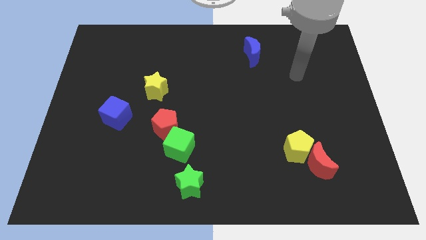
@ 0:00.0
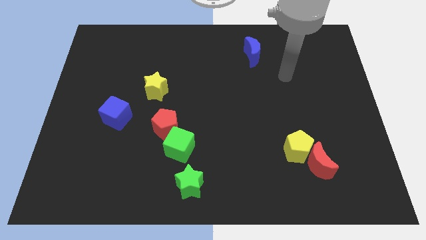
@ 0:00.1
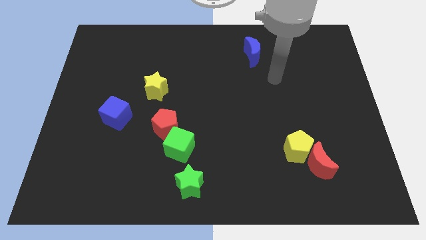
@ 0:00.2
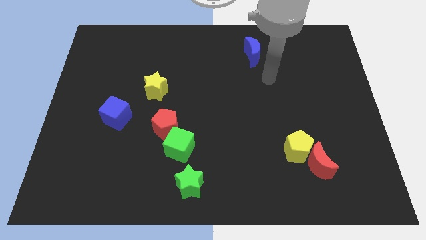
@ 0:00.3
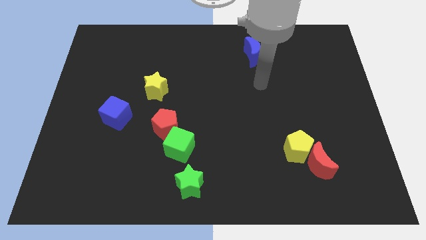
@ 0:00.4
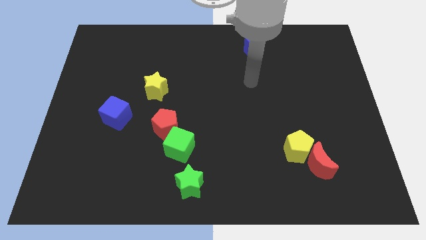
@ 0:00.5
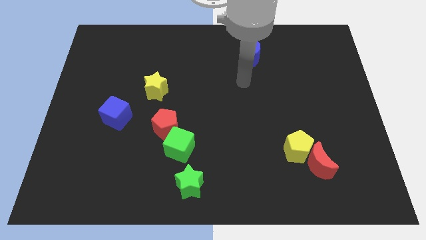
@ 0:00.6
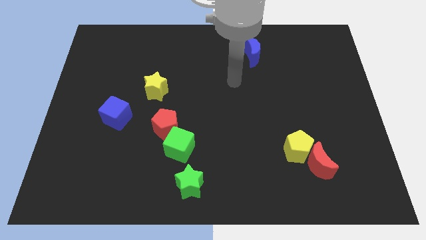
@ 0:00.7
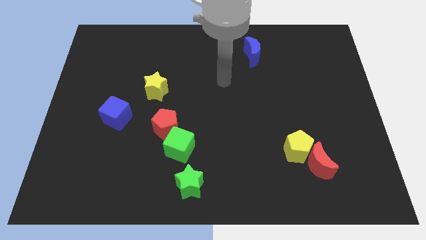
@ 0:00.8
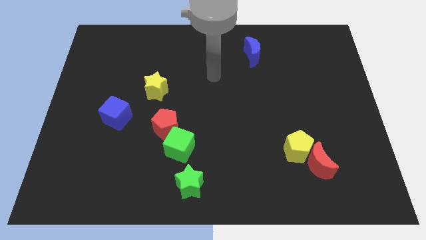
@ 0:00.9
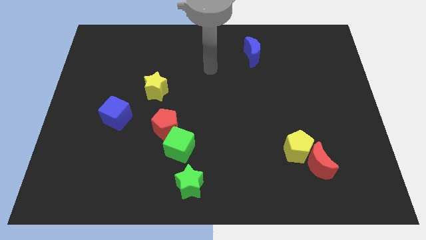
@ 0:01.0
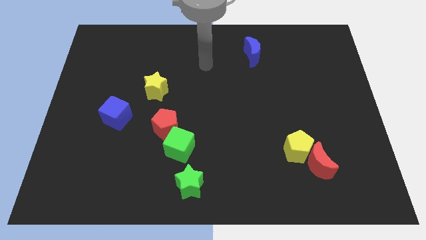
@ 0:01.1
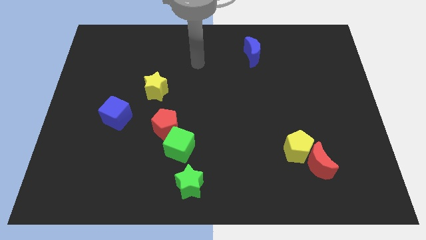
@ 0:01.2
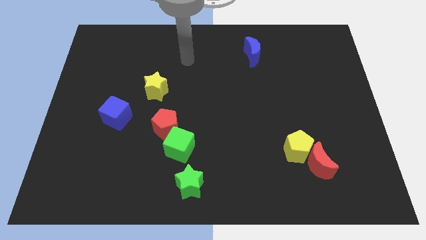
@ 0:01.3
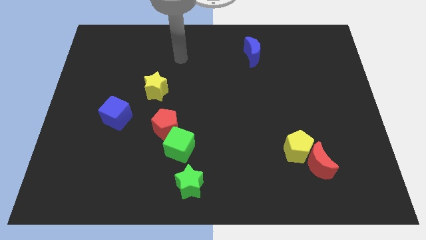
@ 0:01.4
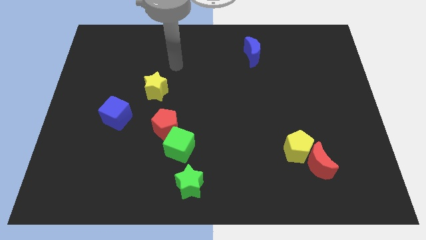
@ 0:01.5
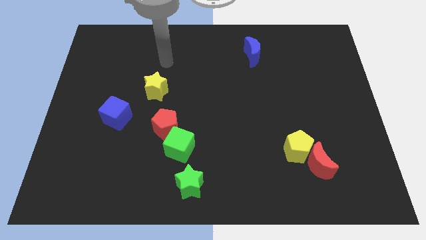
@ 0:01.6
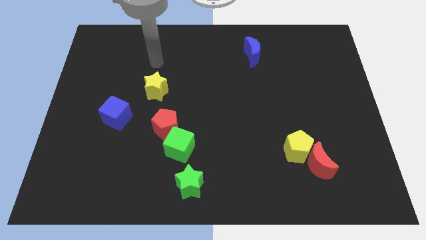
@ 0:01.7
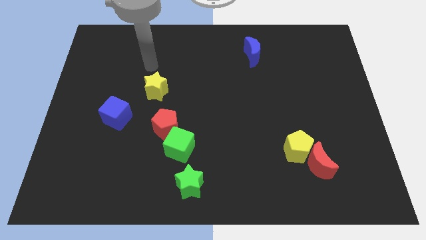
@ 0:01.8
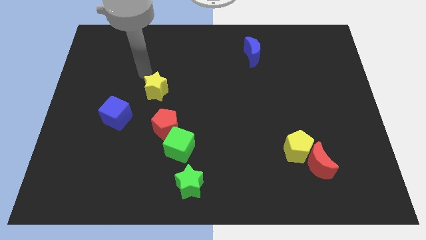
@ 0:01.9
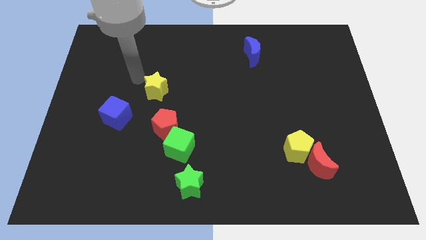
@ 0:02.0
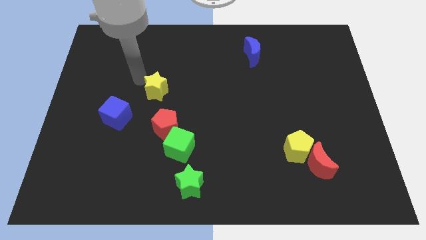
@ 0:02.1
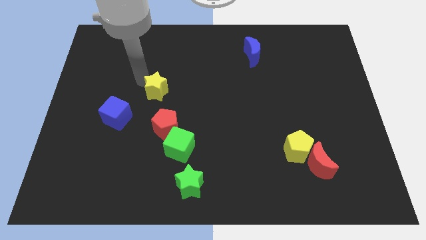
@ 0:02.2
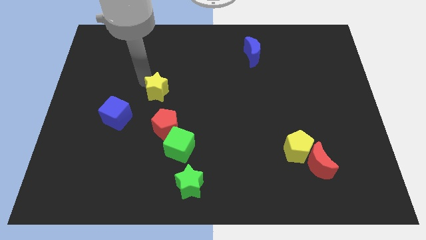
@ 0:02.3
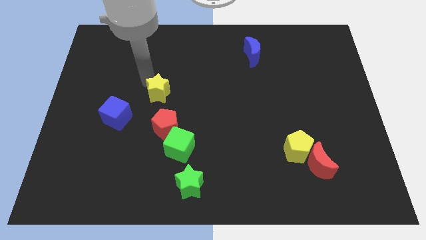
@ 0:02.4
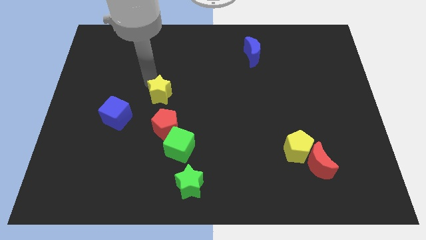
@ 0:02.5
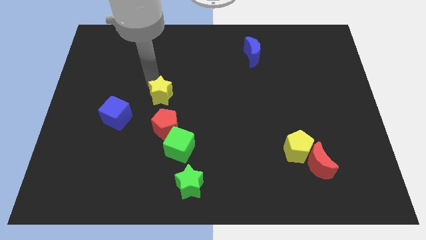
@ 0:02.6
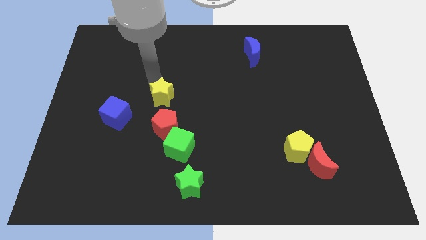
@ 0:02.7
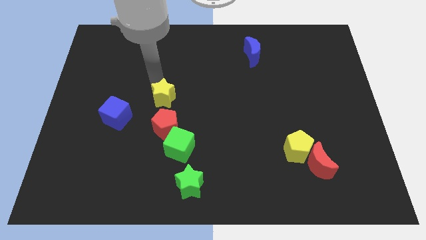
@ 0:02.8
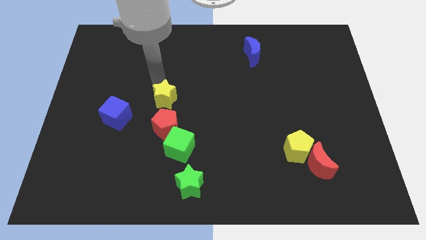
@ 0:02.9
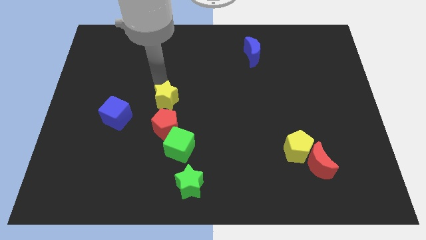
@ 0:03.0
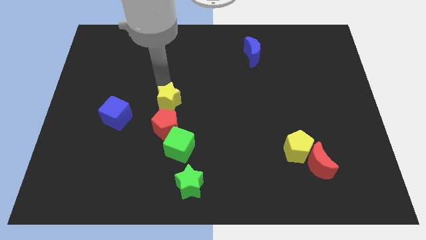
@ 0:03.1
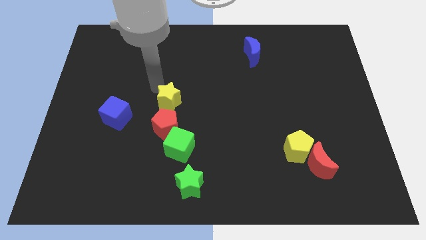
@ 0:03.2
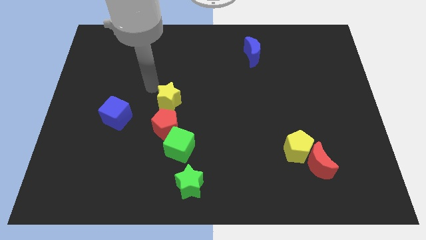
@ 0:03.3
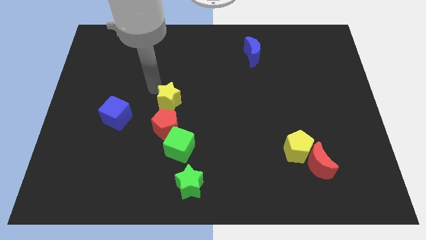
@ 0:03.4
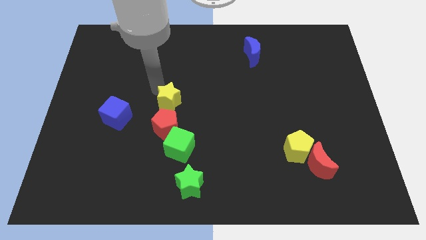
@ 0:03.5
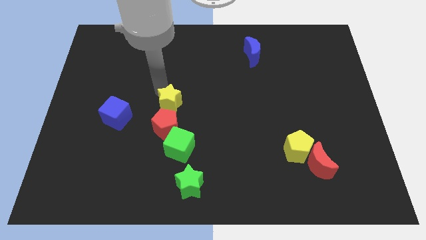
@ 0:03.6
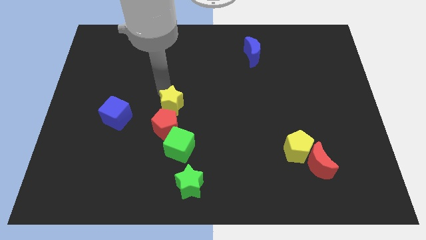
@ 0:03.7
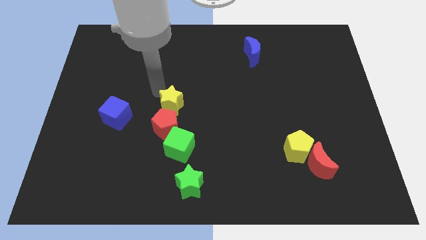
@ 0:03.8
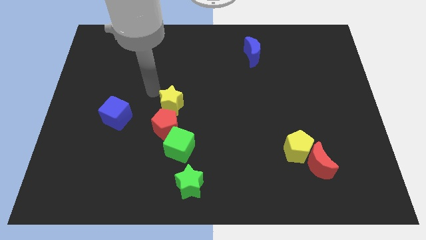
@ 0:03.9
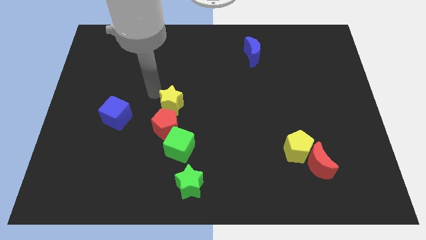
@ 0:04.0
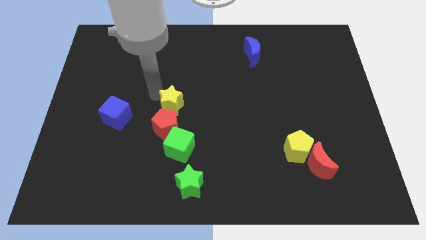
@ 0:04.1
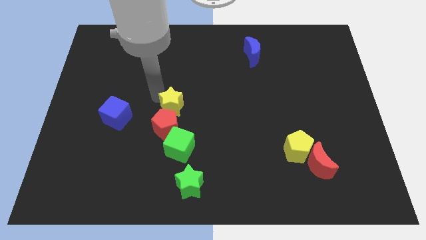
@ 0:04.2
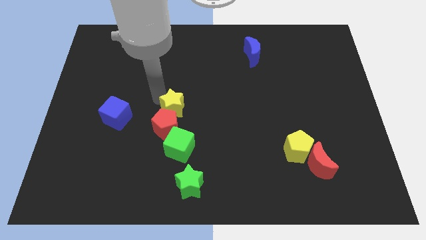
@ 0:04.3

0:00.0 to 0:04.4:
slightly move the yellow star downwards and to the right

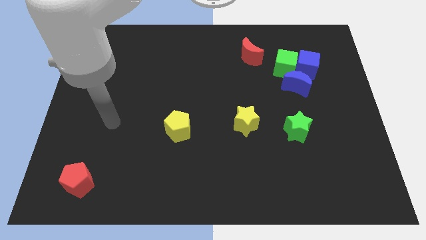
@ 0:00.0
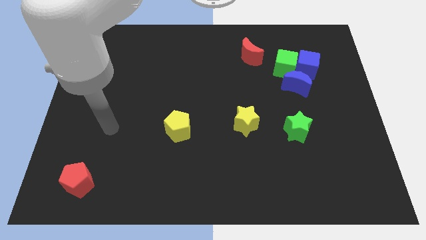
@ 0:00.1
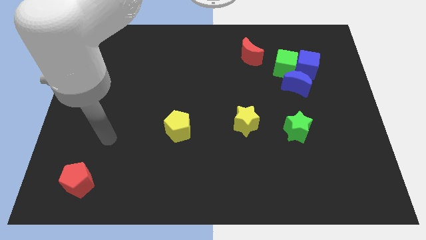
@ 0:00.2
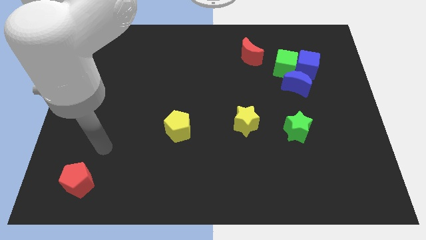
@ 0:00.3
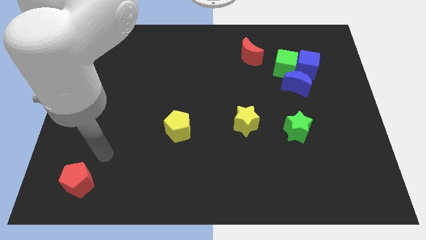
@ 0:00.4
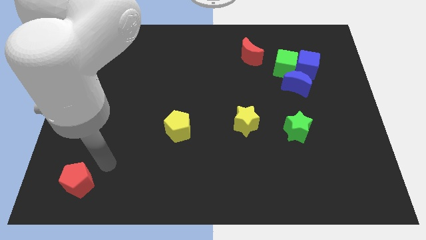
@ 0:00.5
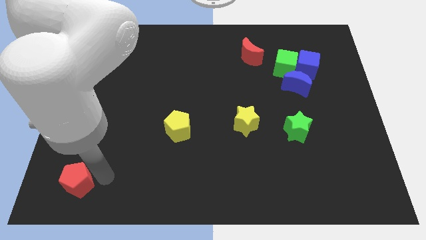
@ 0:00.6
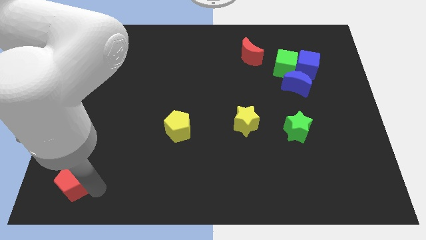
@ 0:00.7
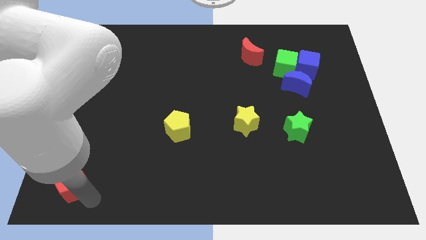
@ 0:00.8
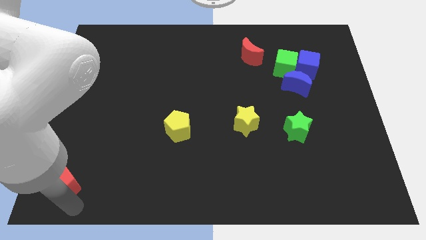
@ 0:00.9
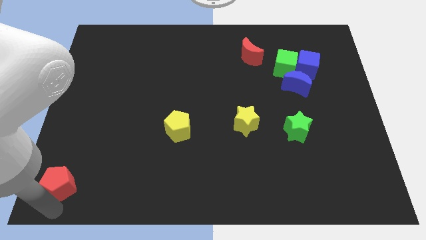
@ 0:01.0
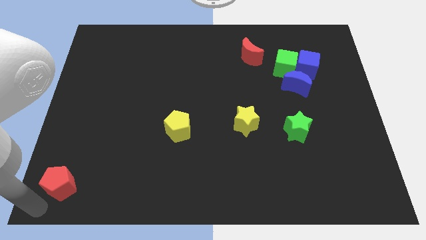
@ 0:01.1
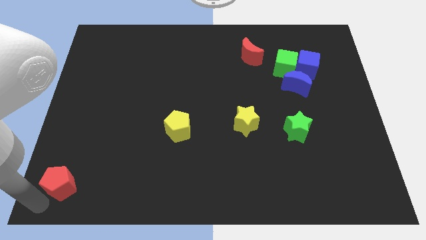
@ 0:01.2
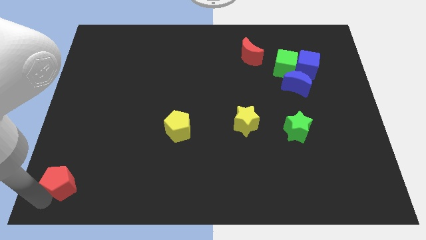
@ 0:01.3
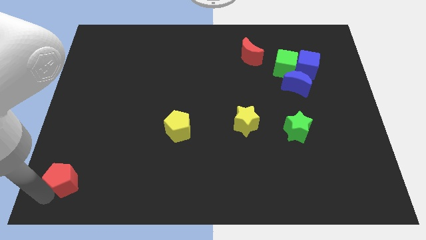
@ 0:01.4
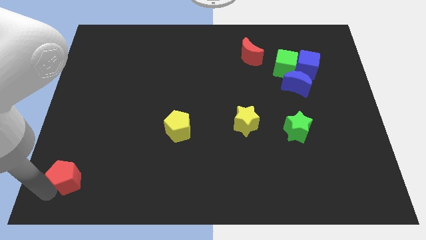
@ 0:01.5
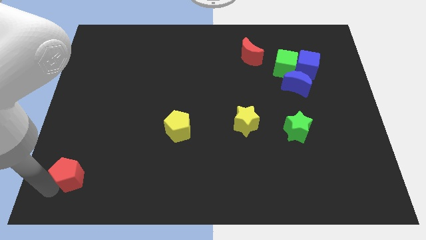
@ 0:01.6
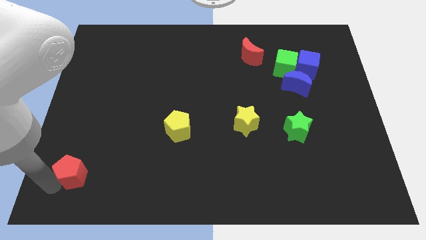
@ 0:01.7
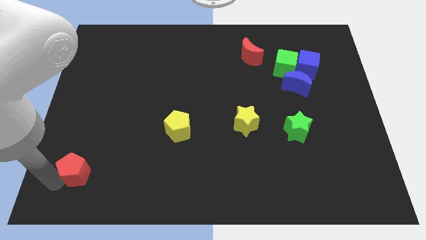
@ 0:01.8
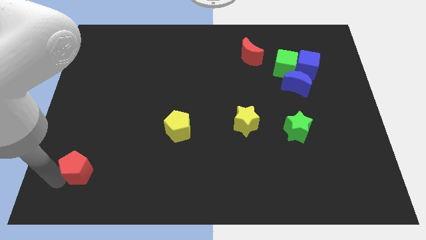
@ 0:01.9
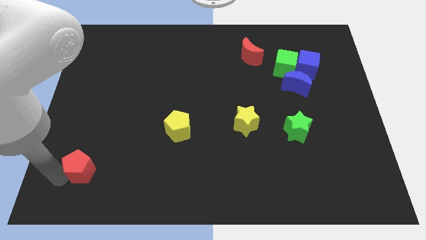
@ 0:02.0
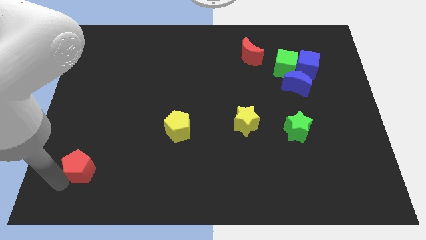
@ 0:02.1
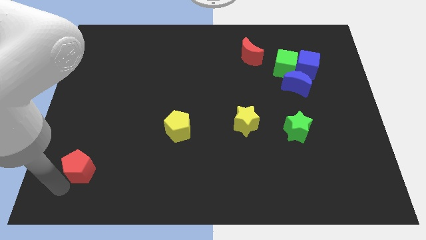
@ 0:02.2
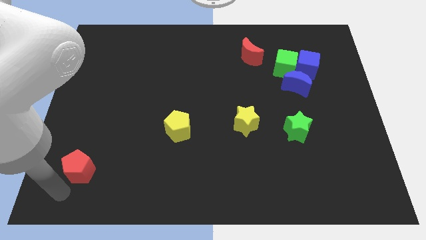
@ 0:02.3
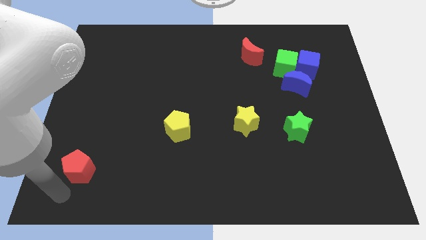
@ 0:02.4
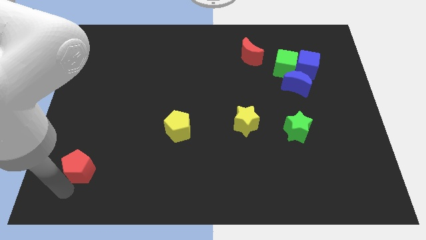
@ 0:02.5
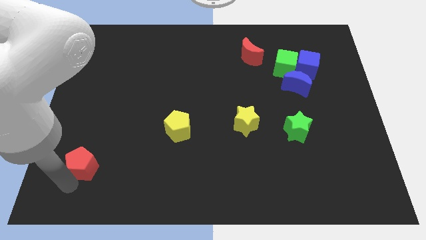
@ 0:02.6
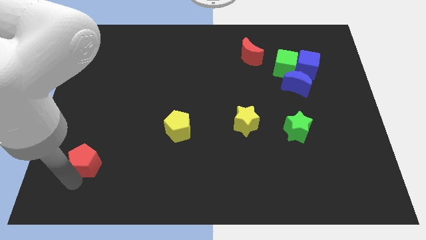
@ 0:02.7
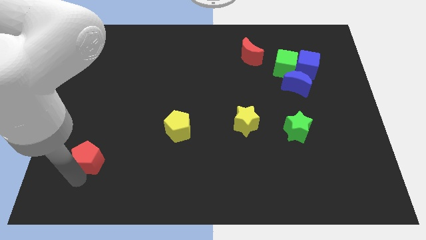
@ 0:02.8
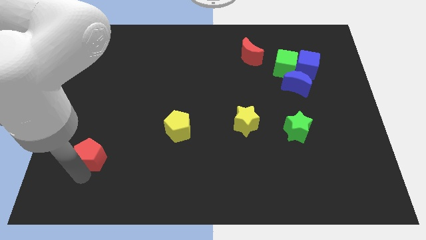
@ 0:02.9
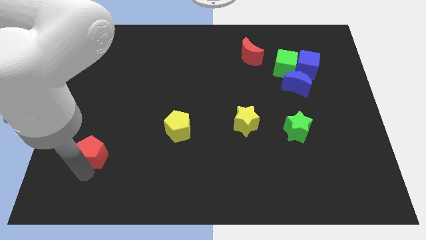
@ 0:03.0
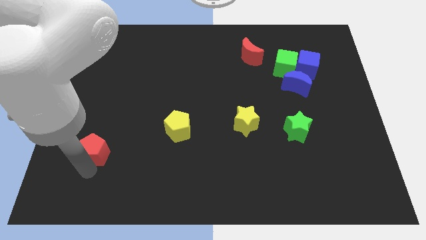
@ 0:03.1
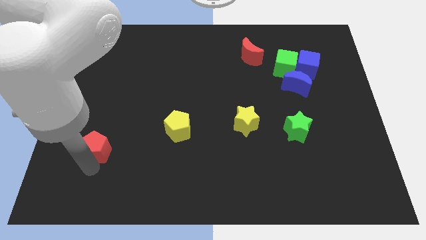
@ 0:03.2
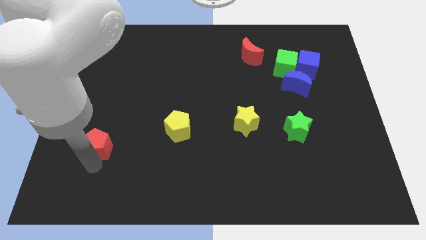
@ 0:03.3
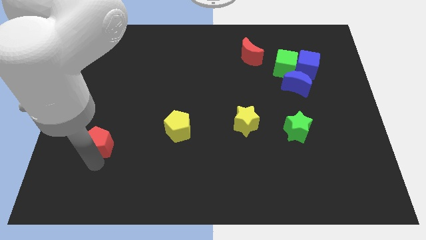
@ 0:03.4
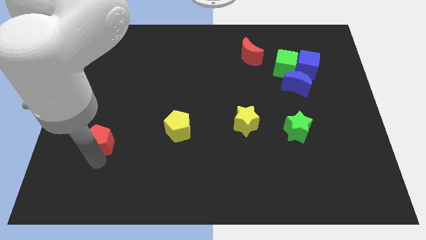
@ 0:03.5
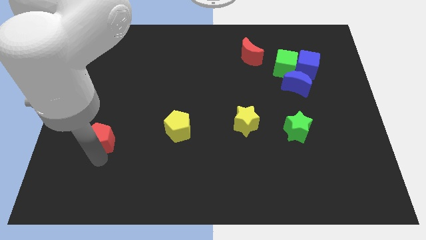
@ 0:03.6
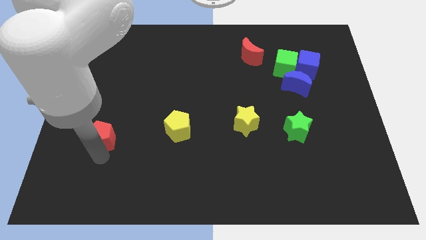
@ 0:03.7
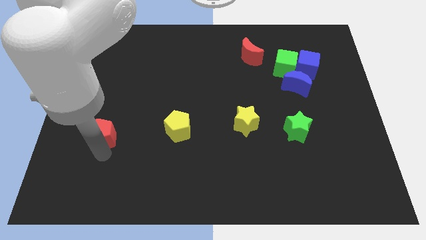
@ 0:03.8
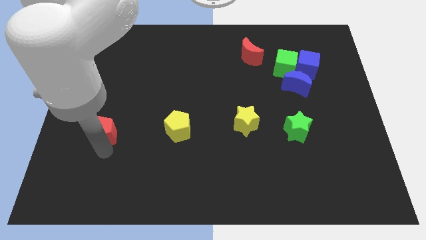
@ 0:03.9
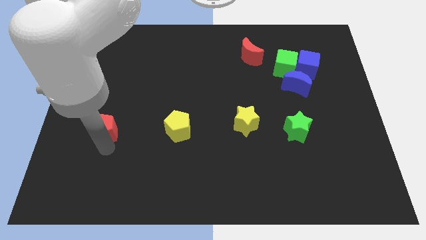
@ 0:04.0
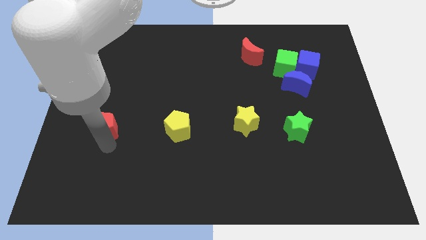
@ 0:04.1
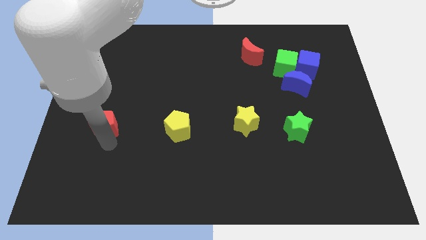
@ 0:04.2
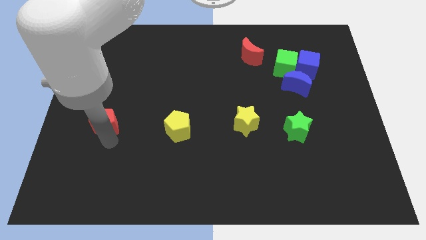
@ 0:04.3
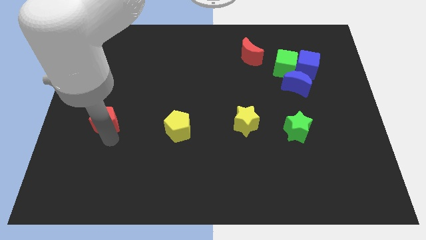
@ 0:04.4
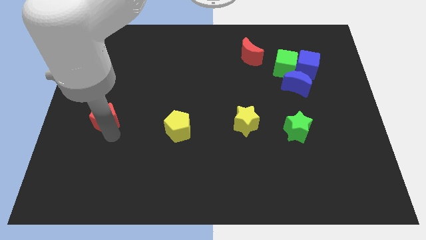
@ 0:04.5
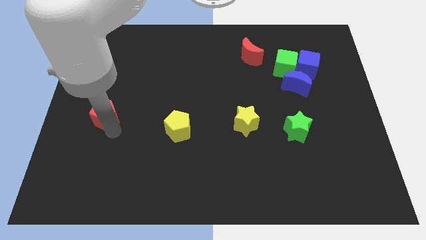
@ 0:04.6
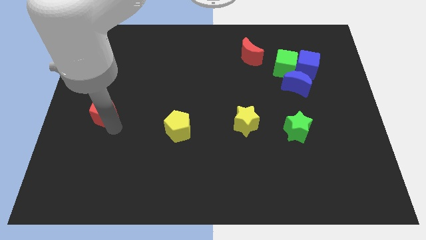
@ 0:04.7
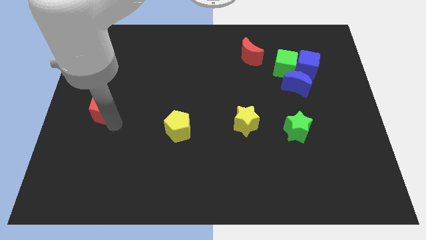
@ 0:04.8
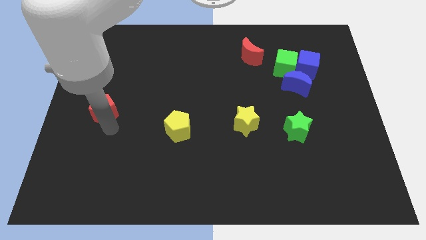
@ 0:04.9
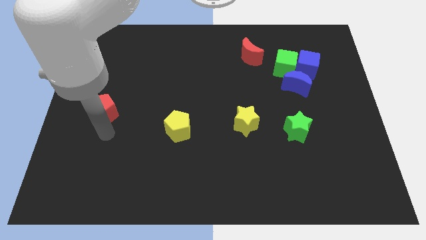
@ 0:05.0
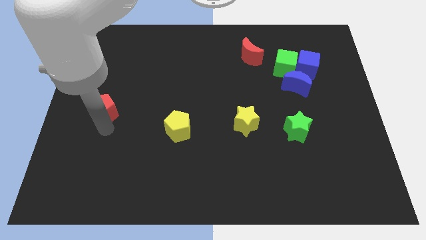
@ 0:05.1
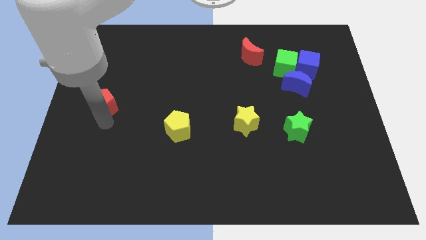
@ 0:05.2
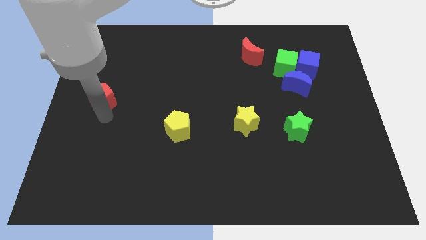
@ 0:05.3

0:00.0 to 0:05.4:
slide the red pentagon upwards
